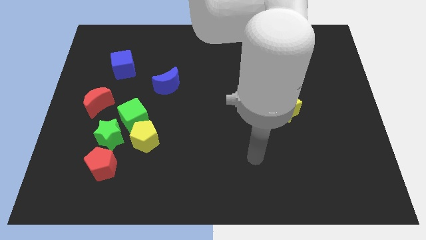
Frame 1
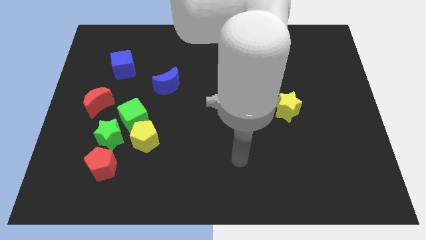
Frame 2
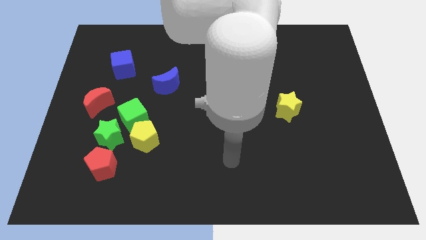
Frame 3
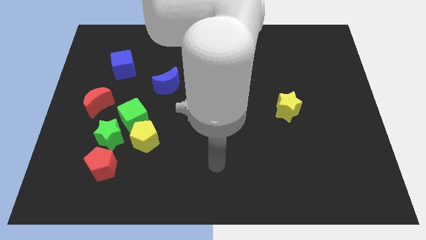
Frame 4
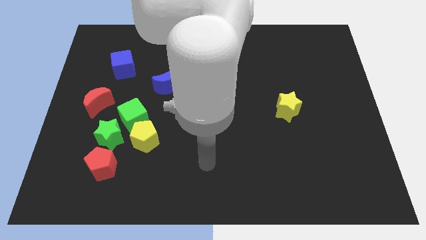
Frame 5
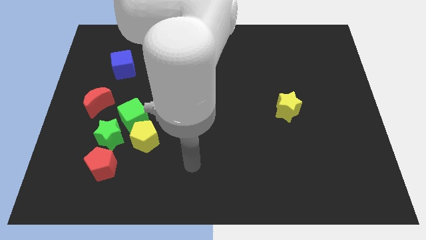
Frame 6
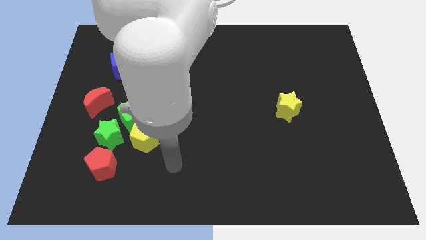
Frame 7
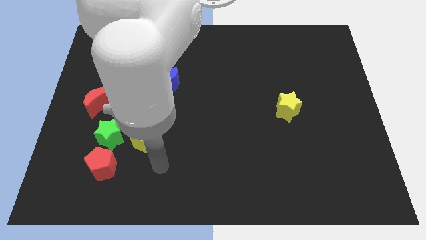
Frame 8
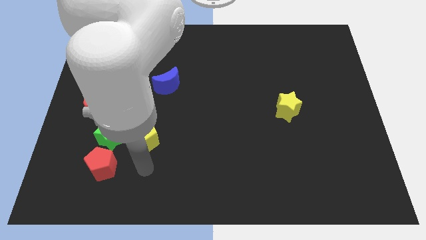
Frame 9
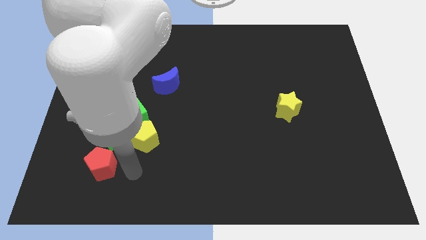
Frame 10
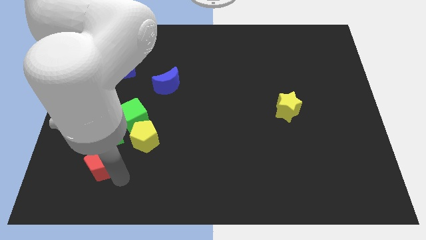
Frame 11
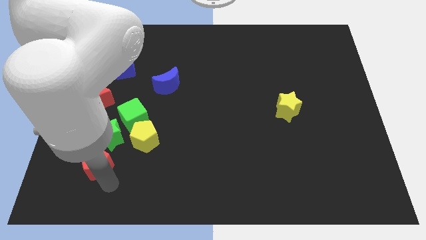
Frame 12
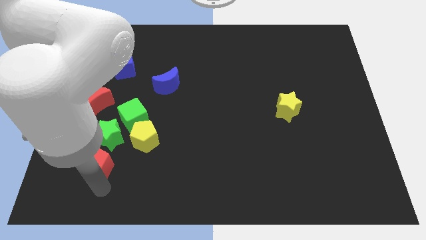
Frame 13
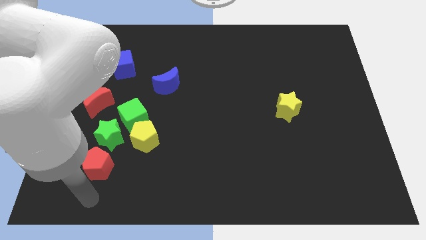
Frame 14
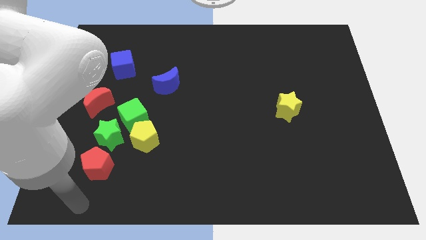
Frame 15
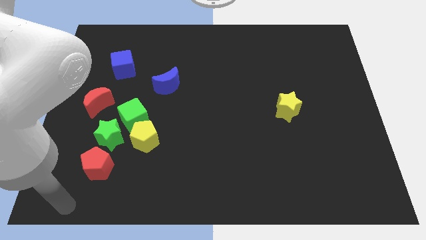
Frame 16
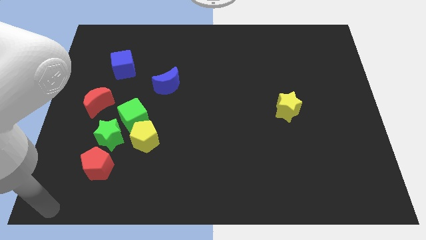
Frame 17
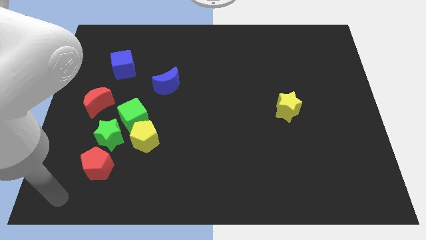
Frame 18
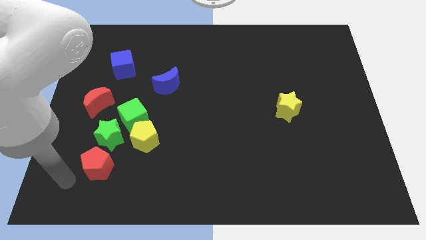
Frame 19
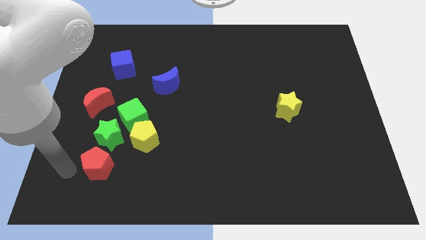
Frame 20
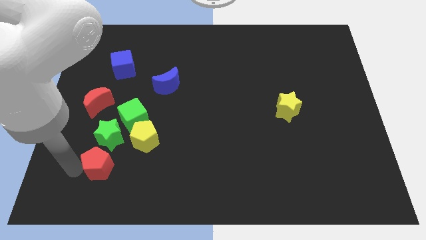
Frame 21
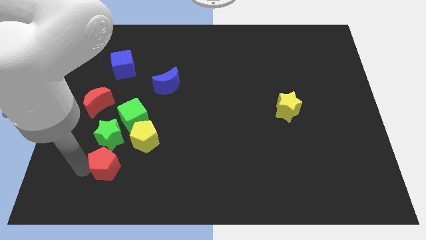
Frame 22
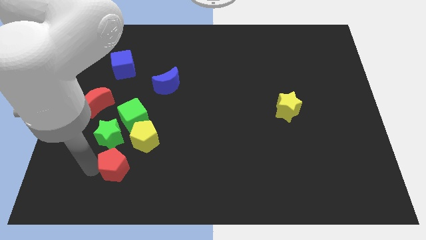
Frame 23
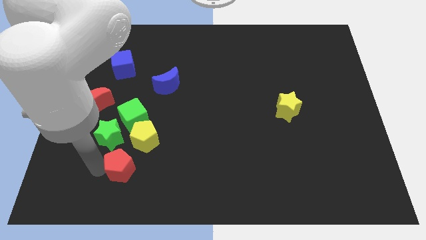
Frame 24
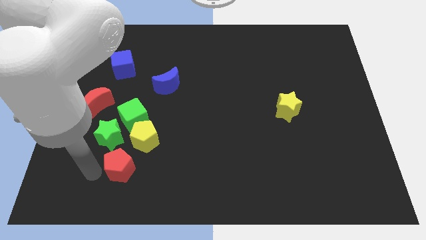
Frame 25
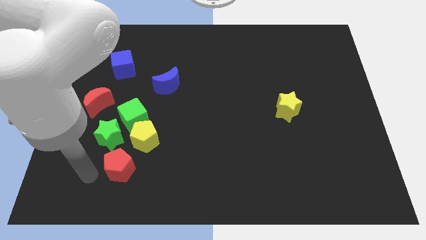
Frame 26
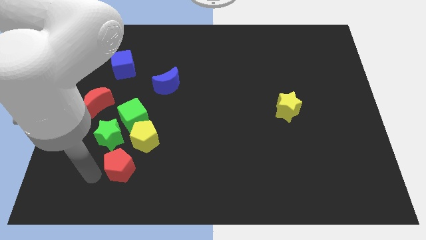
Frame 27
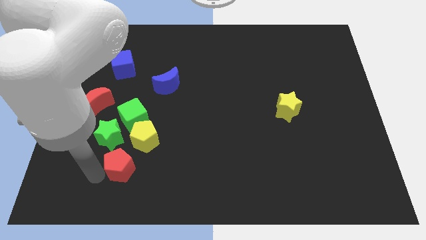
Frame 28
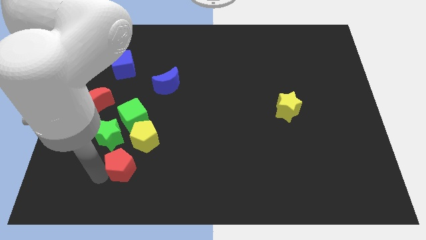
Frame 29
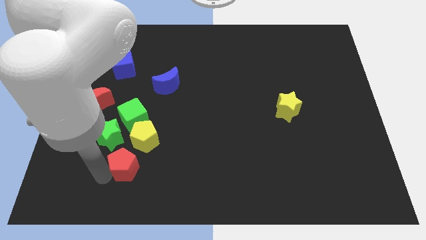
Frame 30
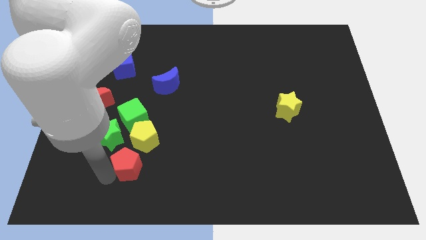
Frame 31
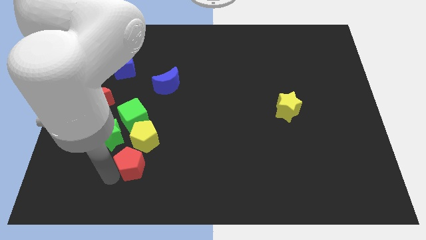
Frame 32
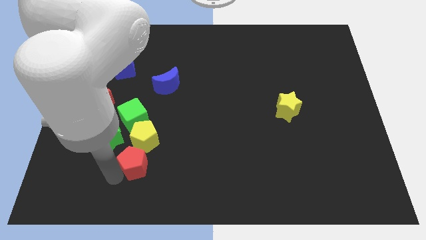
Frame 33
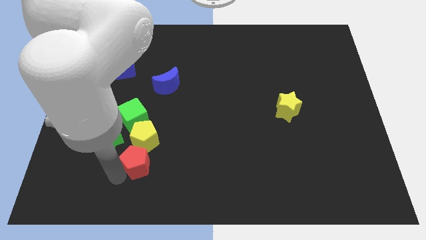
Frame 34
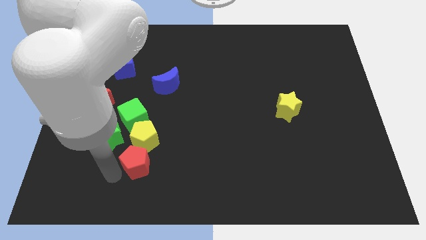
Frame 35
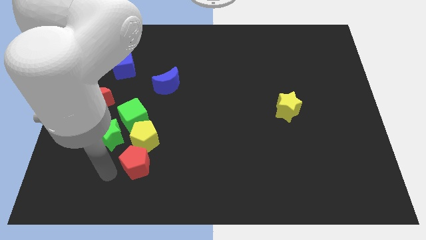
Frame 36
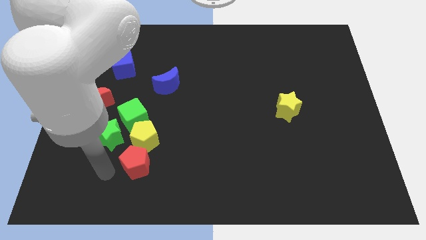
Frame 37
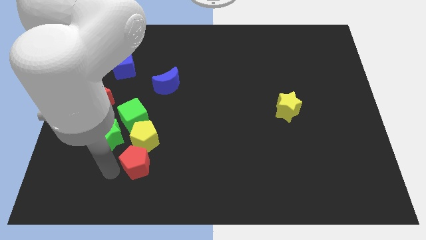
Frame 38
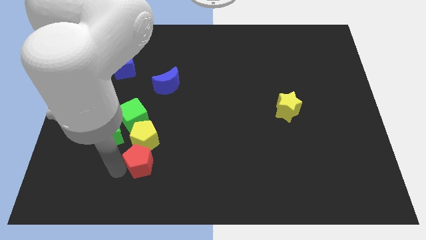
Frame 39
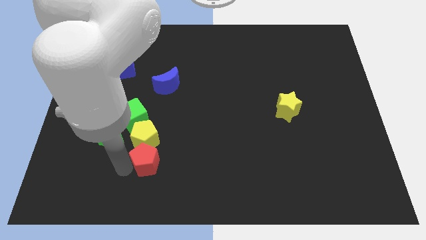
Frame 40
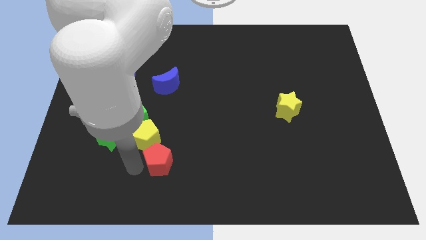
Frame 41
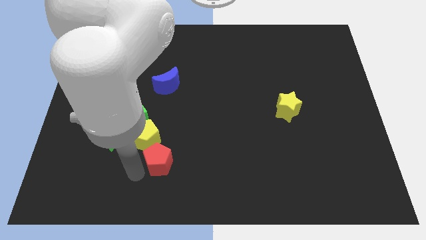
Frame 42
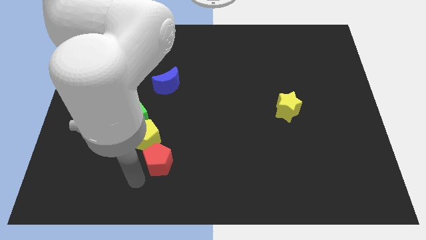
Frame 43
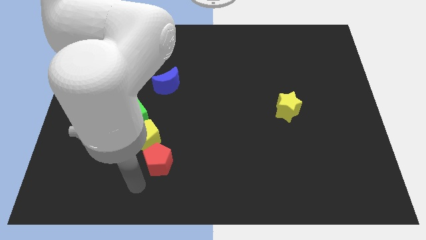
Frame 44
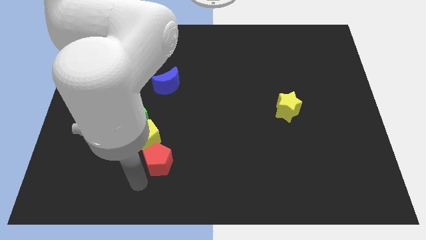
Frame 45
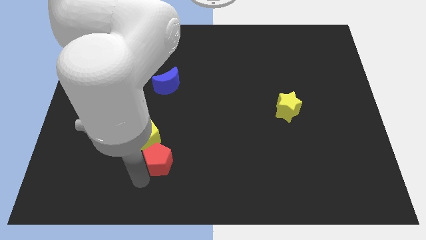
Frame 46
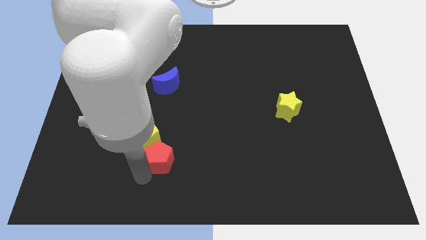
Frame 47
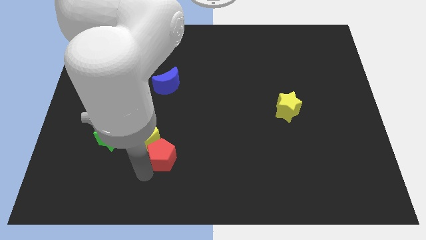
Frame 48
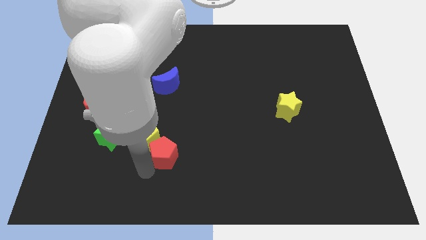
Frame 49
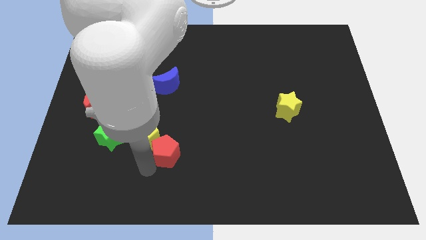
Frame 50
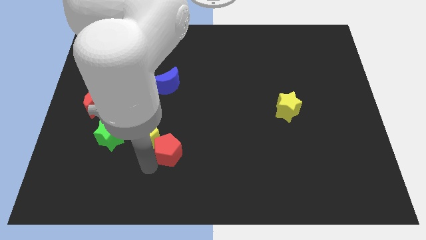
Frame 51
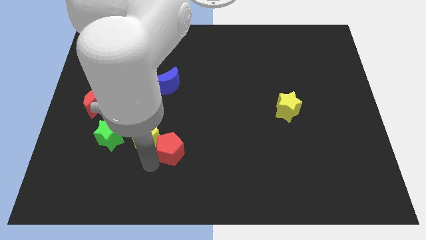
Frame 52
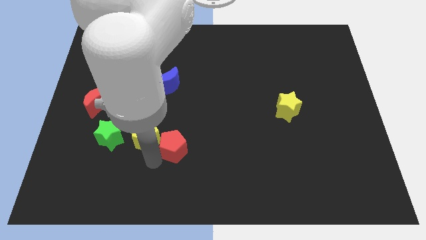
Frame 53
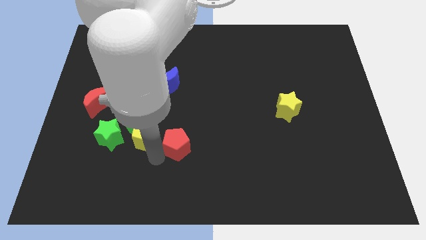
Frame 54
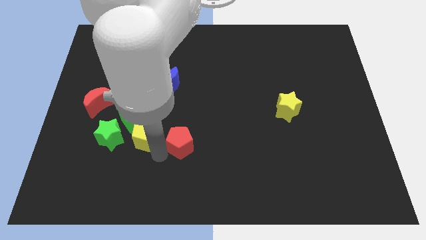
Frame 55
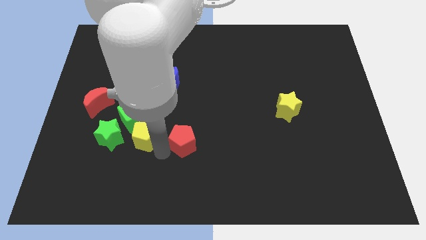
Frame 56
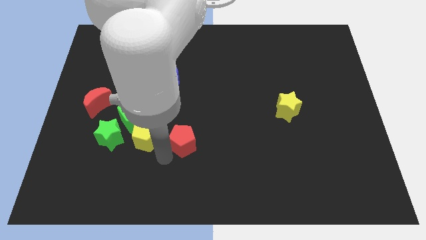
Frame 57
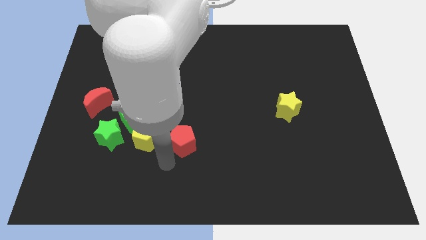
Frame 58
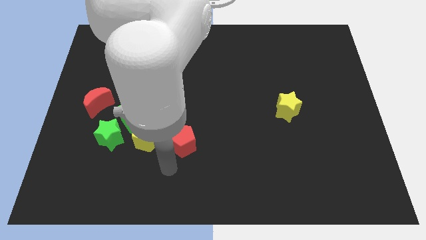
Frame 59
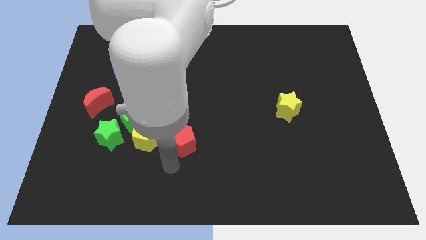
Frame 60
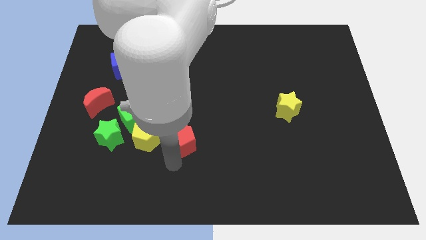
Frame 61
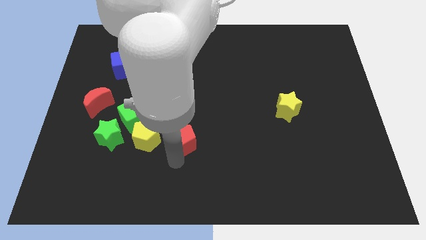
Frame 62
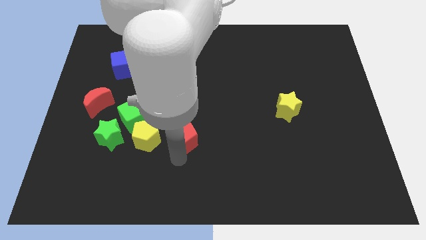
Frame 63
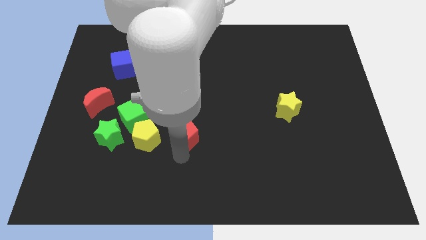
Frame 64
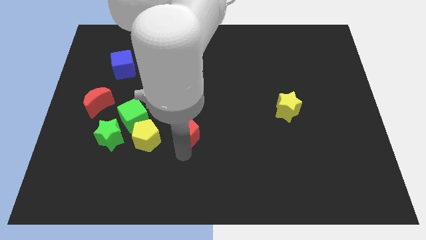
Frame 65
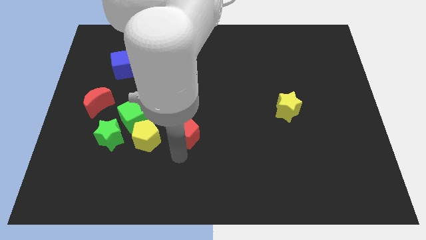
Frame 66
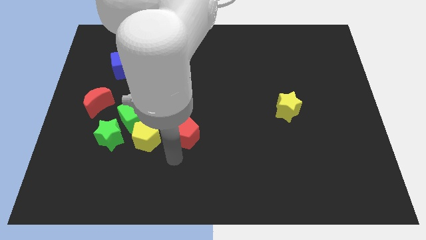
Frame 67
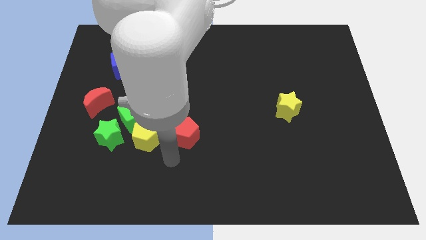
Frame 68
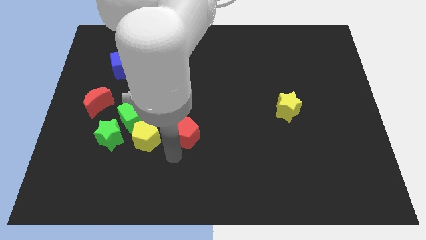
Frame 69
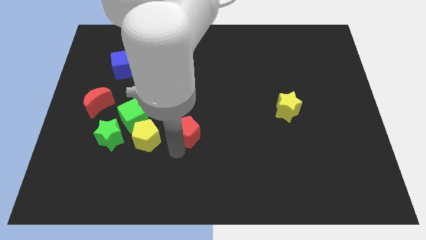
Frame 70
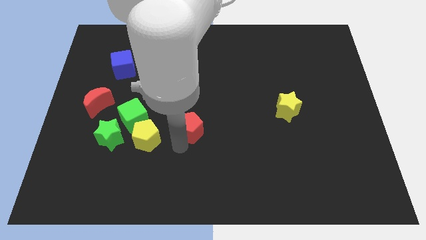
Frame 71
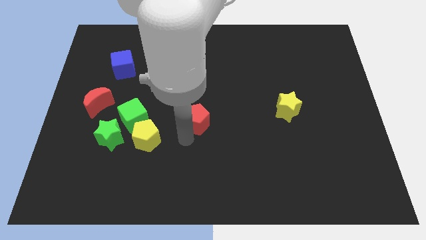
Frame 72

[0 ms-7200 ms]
slide the red pentagon upwards and right

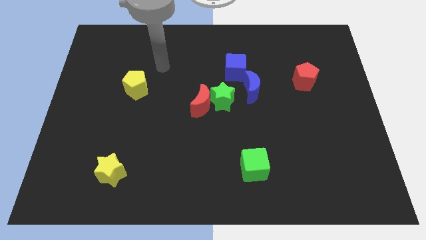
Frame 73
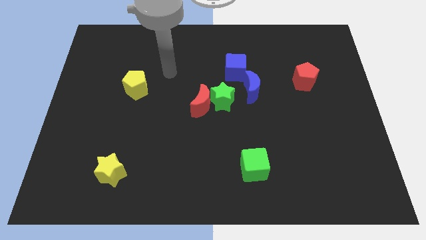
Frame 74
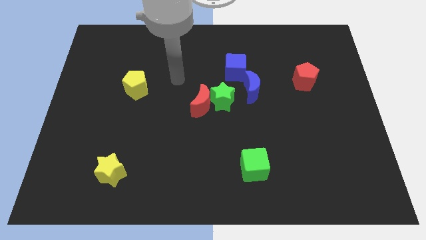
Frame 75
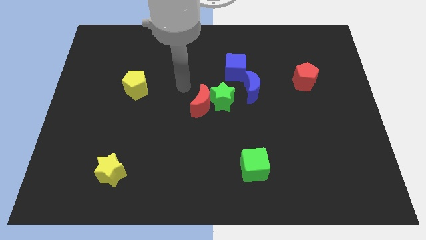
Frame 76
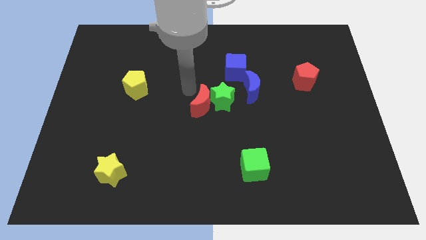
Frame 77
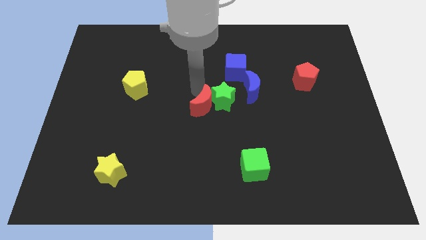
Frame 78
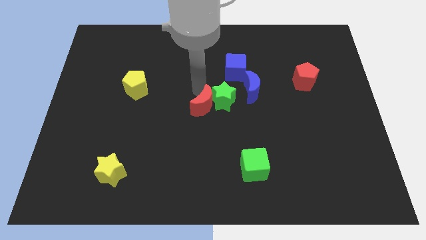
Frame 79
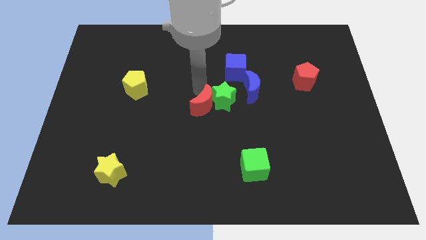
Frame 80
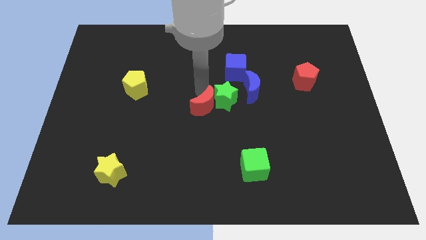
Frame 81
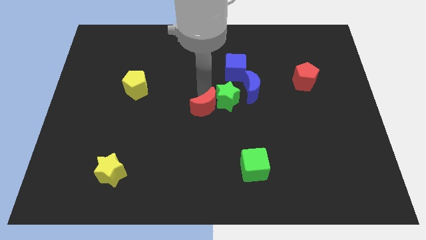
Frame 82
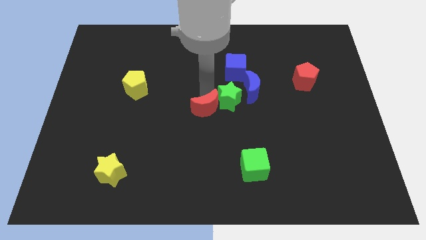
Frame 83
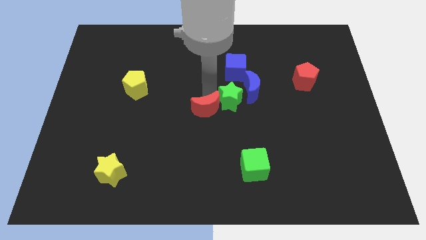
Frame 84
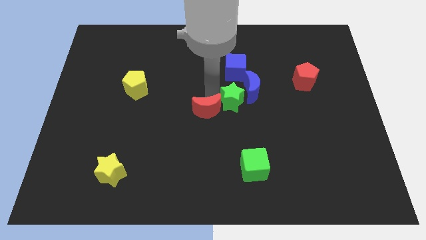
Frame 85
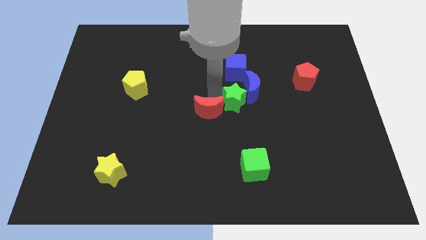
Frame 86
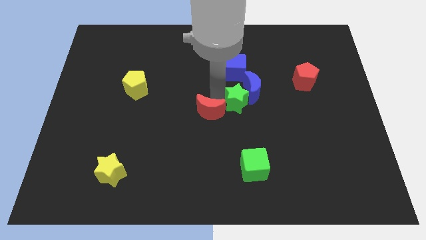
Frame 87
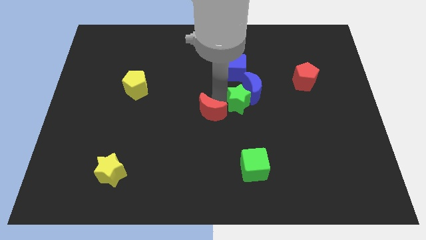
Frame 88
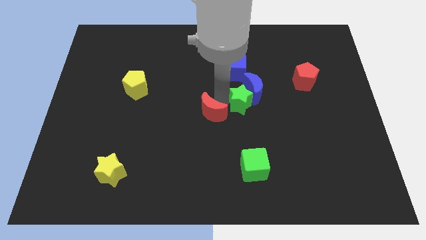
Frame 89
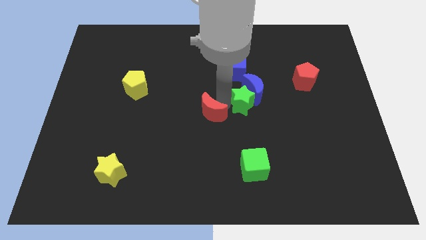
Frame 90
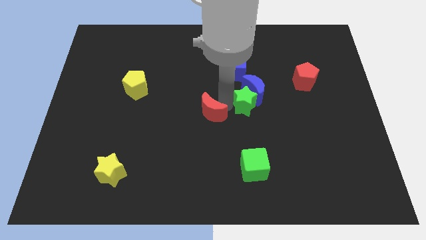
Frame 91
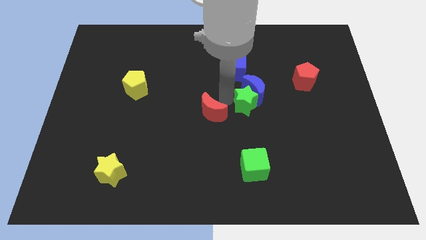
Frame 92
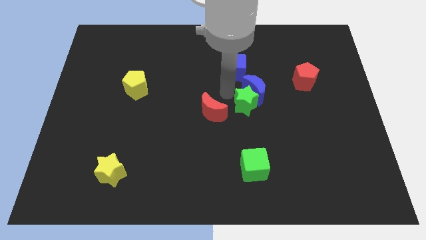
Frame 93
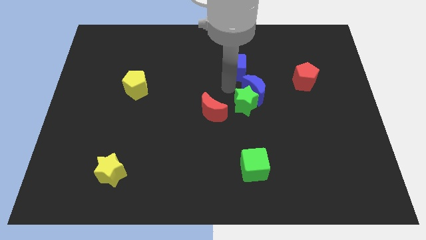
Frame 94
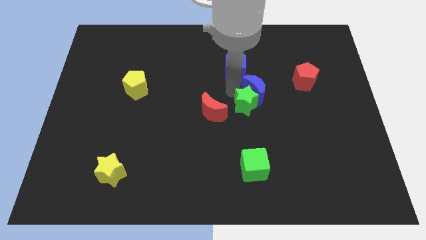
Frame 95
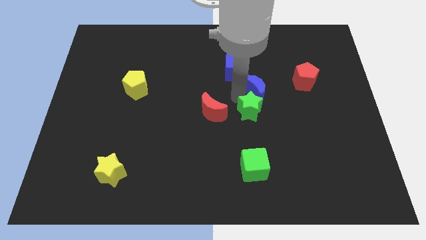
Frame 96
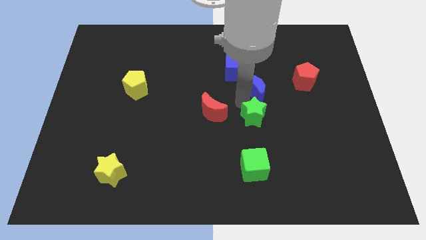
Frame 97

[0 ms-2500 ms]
slightly move the green star downwards and right diagonally
